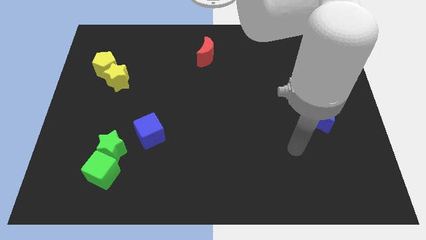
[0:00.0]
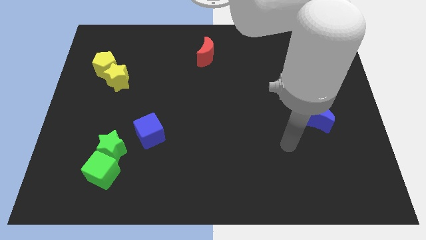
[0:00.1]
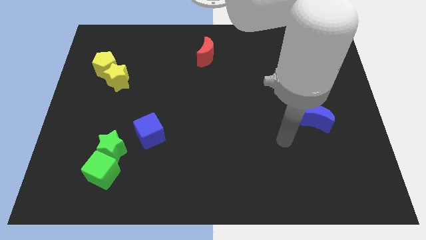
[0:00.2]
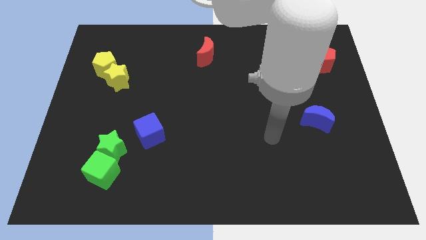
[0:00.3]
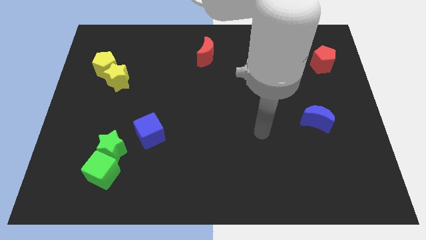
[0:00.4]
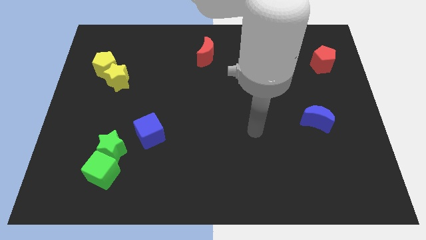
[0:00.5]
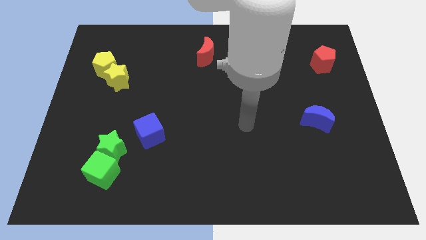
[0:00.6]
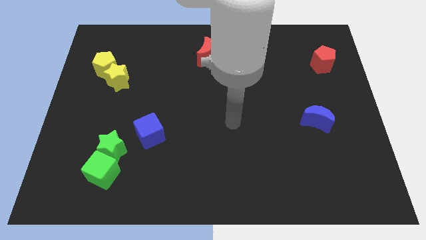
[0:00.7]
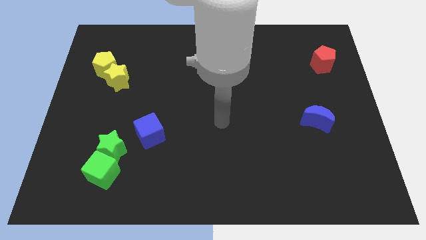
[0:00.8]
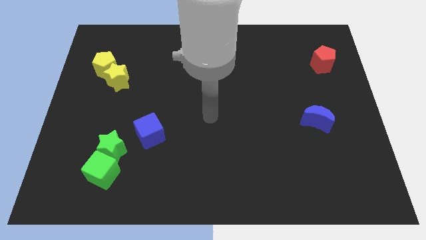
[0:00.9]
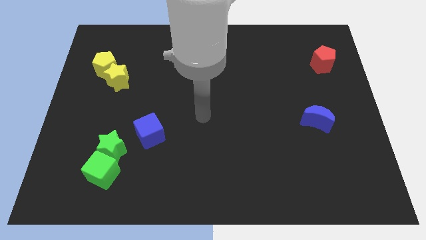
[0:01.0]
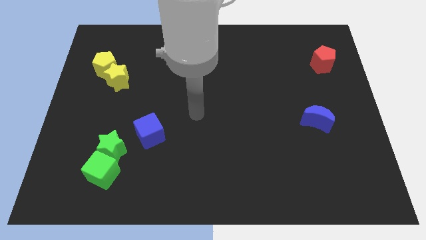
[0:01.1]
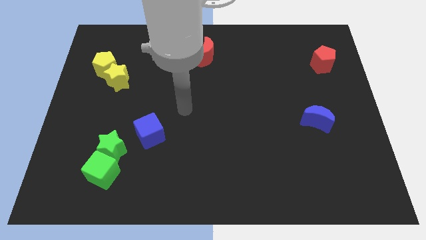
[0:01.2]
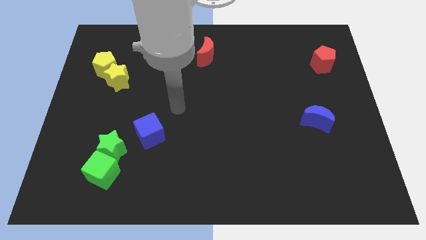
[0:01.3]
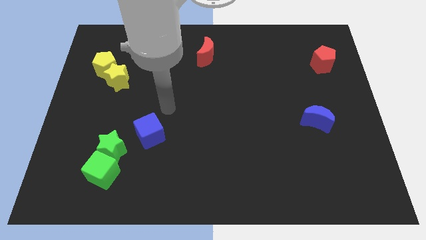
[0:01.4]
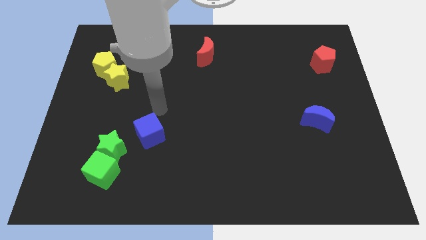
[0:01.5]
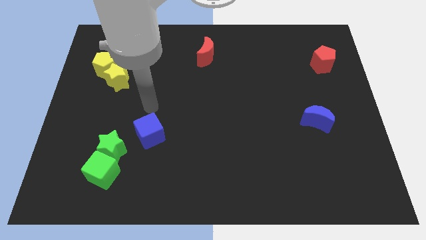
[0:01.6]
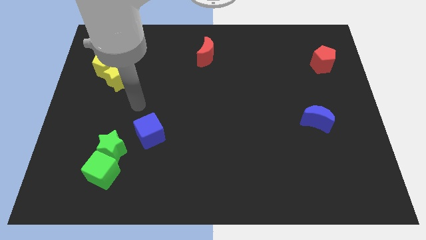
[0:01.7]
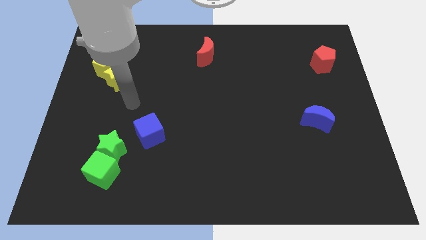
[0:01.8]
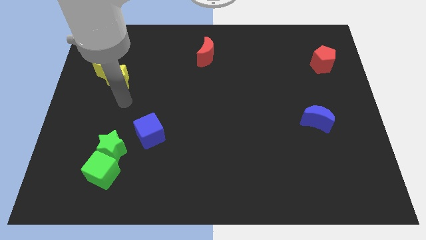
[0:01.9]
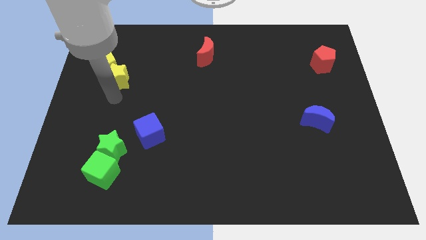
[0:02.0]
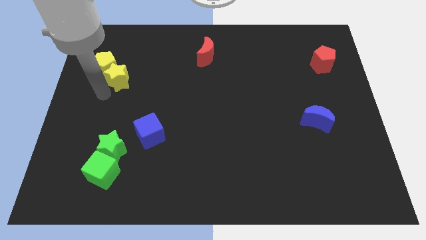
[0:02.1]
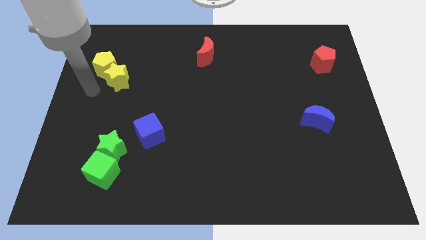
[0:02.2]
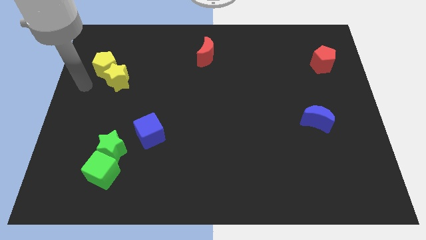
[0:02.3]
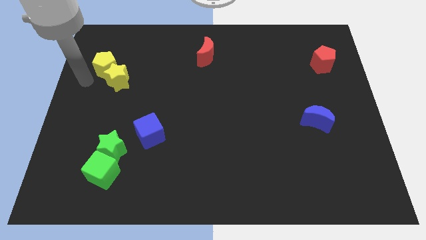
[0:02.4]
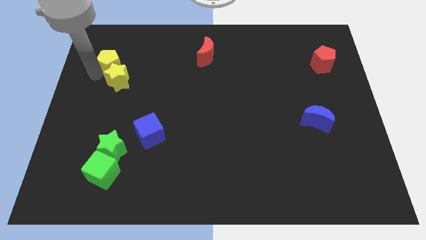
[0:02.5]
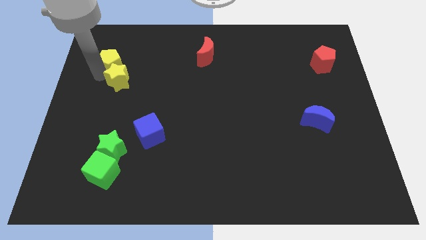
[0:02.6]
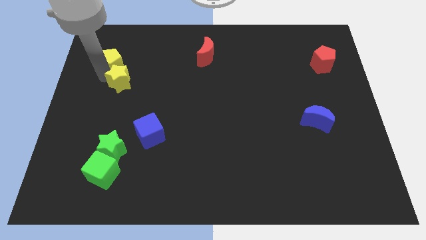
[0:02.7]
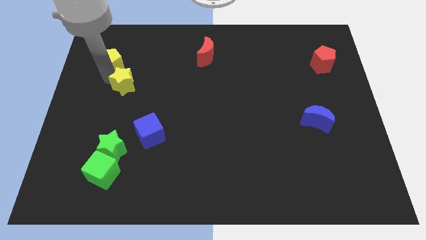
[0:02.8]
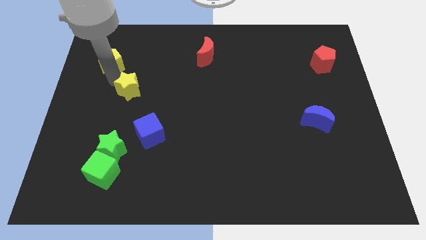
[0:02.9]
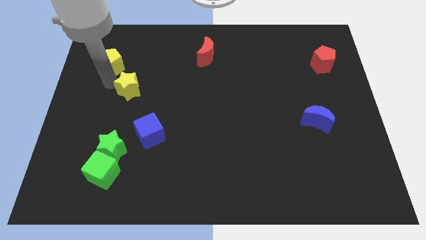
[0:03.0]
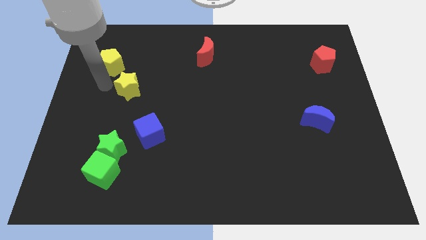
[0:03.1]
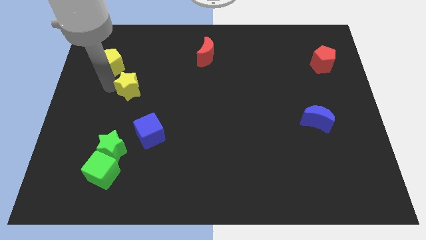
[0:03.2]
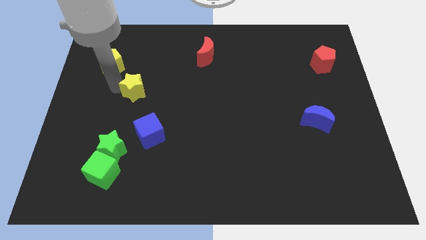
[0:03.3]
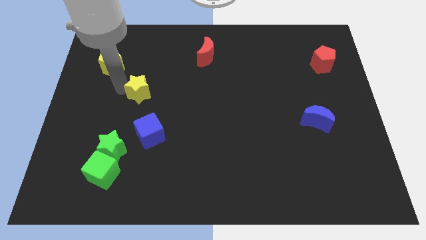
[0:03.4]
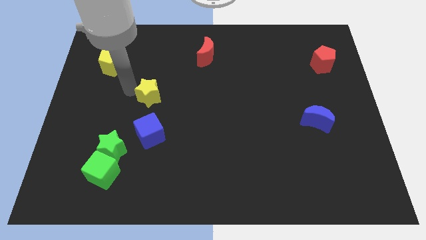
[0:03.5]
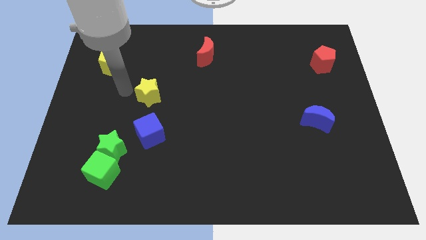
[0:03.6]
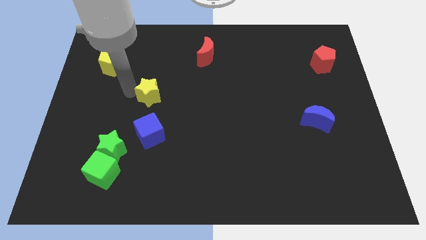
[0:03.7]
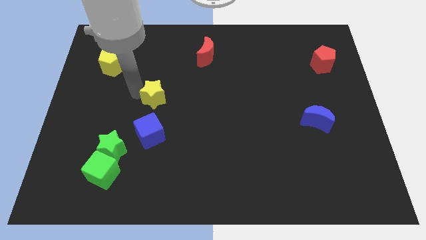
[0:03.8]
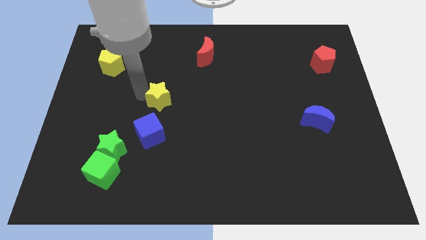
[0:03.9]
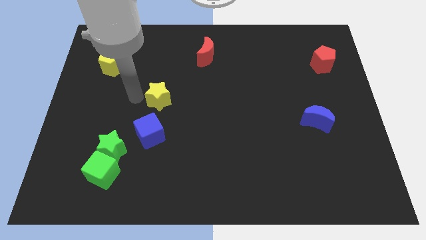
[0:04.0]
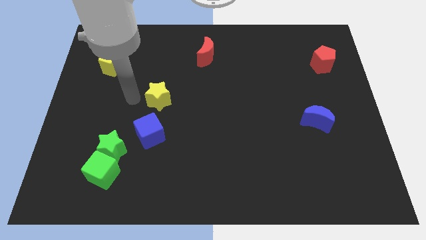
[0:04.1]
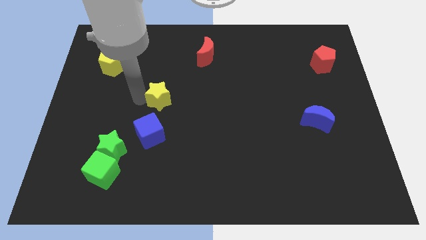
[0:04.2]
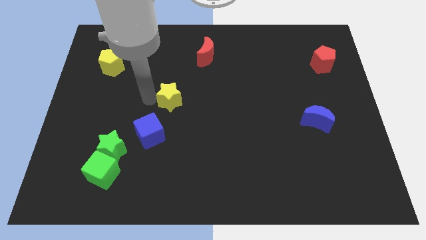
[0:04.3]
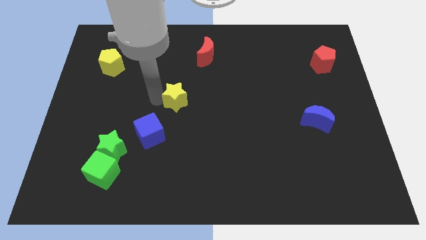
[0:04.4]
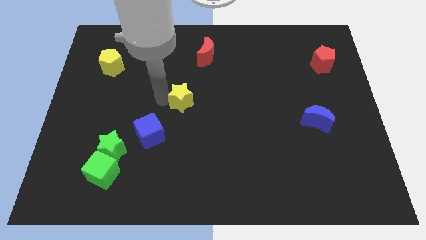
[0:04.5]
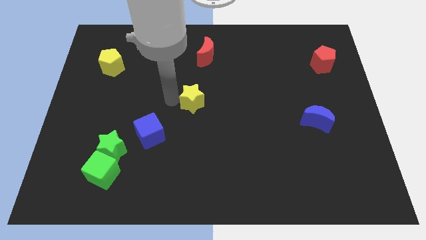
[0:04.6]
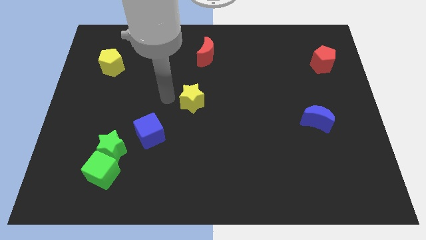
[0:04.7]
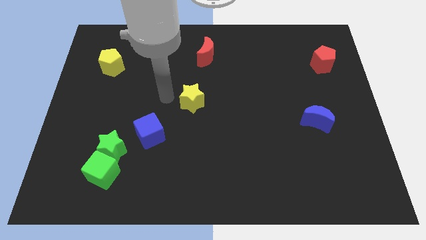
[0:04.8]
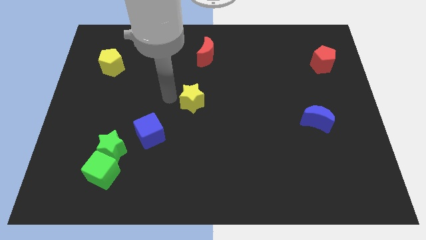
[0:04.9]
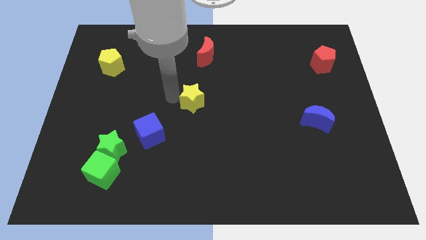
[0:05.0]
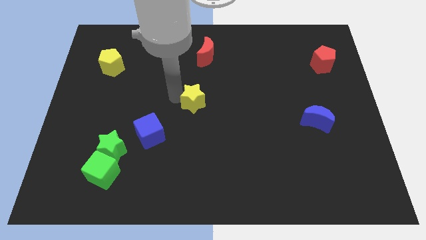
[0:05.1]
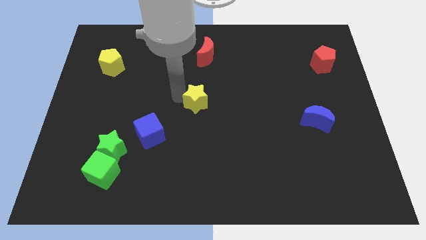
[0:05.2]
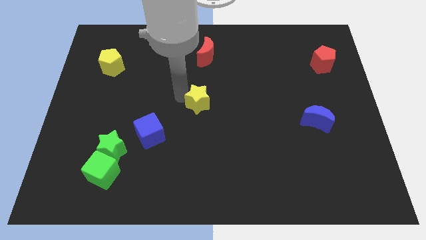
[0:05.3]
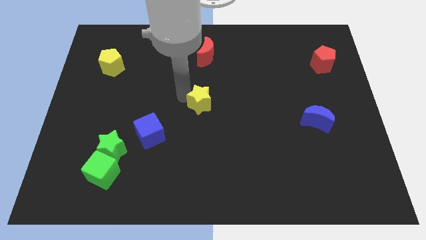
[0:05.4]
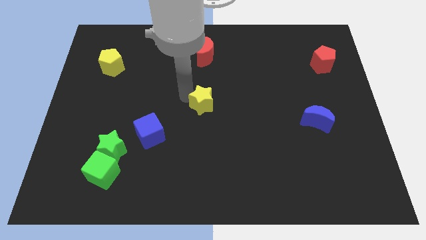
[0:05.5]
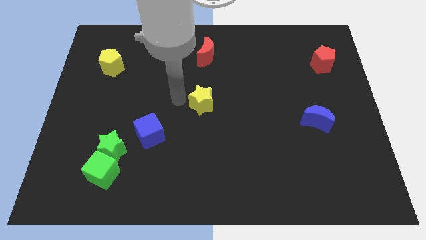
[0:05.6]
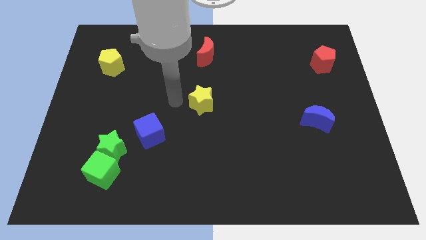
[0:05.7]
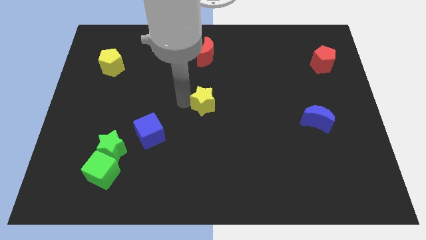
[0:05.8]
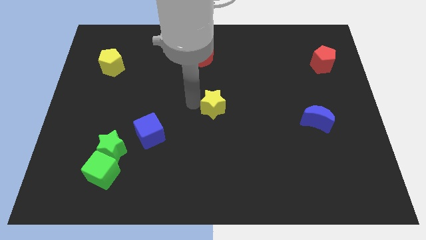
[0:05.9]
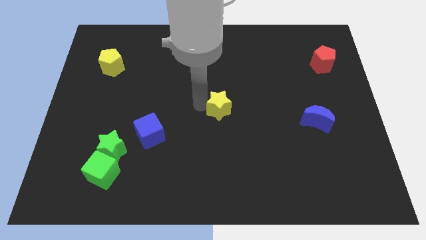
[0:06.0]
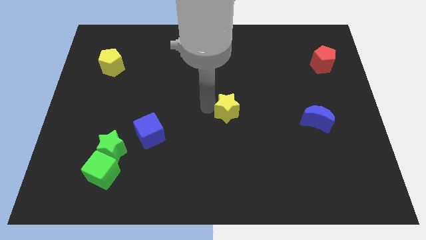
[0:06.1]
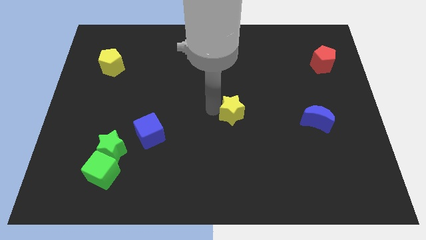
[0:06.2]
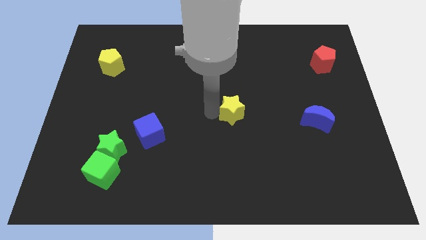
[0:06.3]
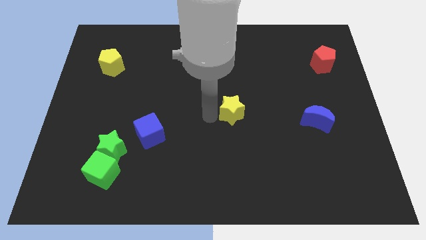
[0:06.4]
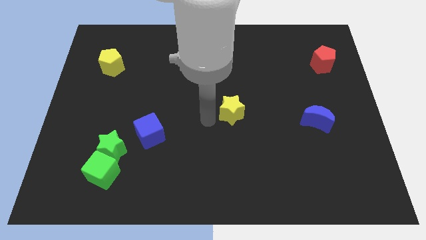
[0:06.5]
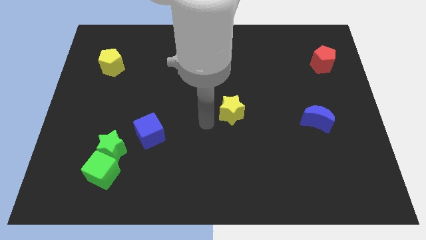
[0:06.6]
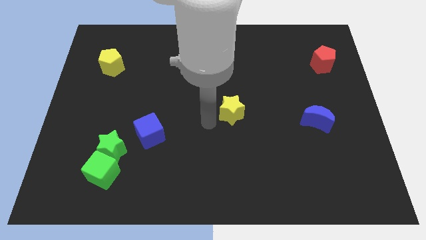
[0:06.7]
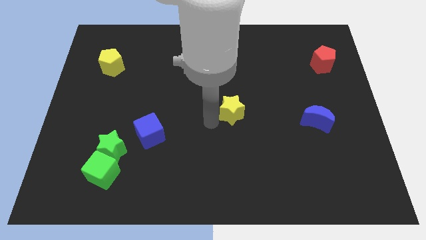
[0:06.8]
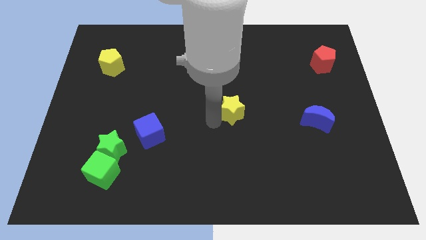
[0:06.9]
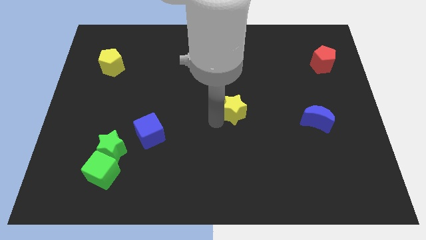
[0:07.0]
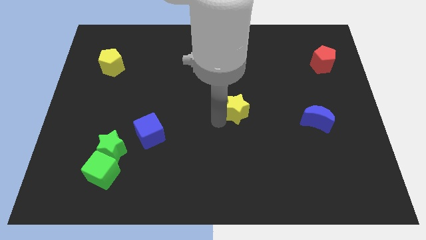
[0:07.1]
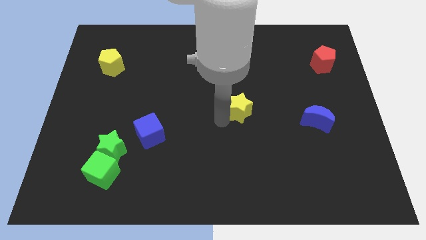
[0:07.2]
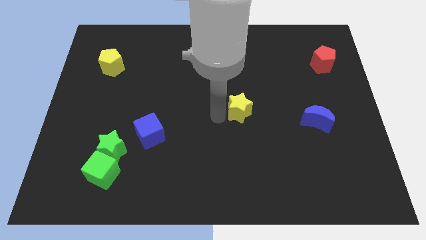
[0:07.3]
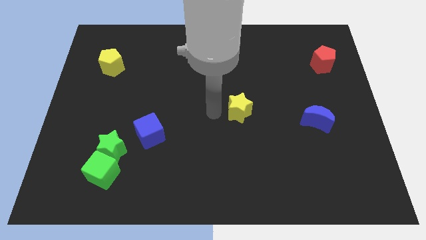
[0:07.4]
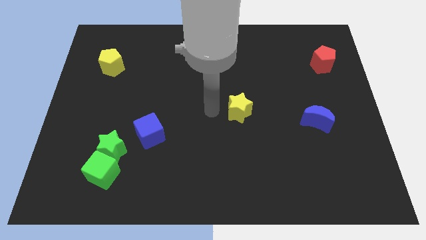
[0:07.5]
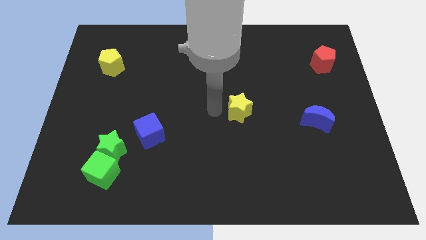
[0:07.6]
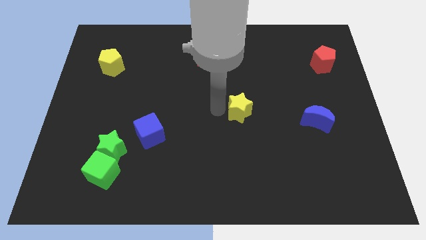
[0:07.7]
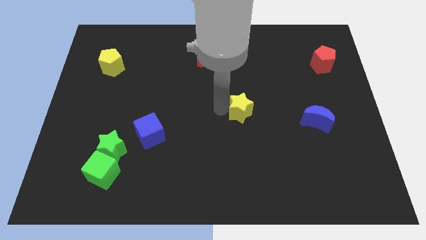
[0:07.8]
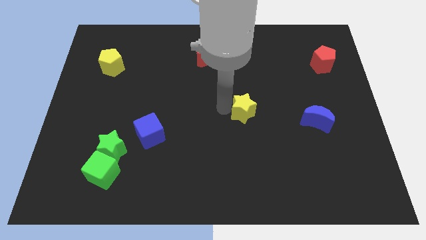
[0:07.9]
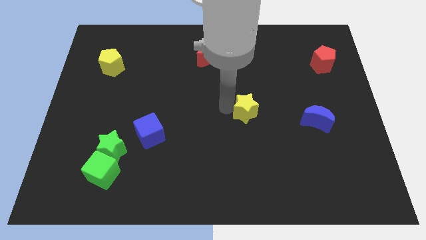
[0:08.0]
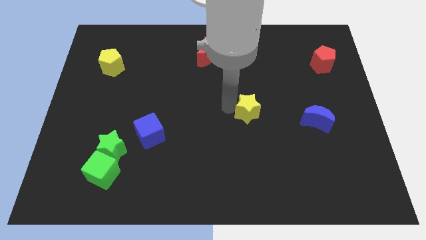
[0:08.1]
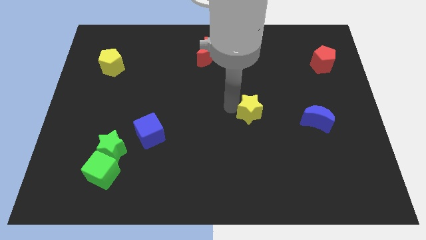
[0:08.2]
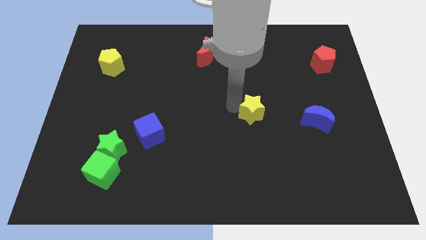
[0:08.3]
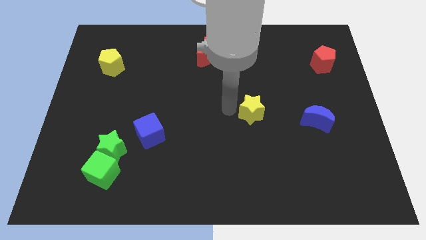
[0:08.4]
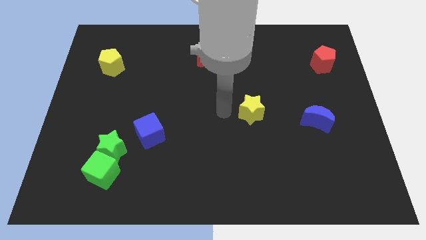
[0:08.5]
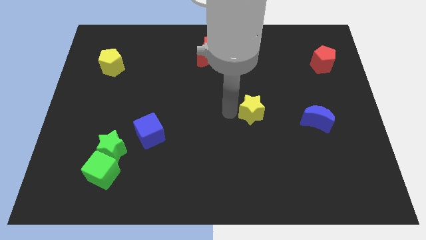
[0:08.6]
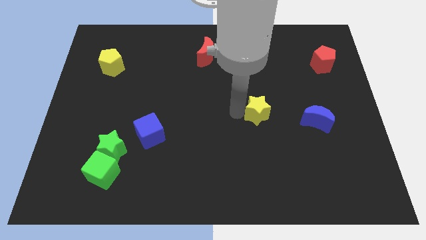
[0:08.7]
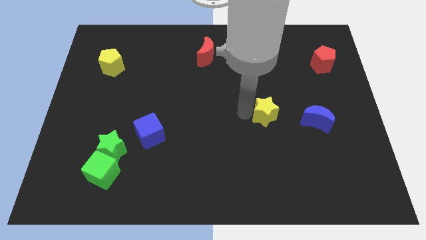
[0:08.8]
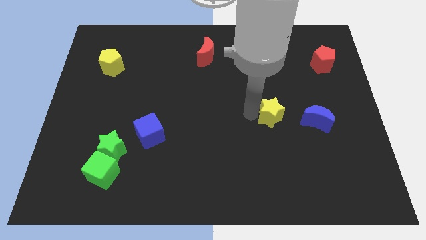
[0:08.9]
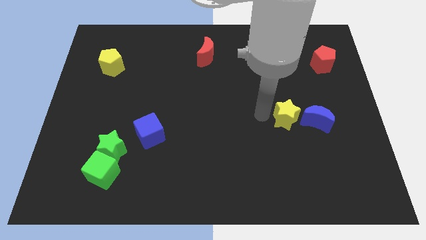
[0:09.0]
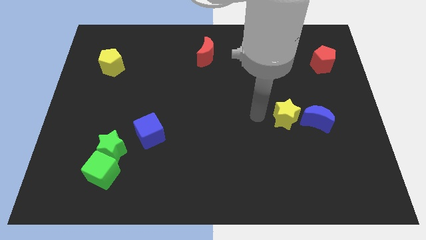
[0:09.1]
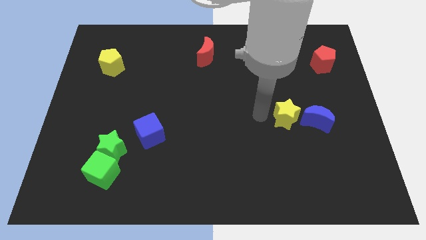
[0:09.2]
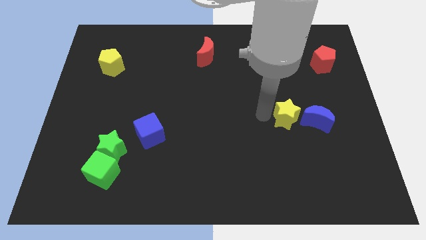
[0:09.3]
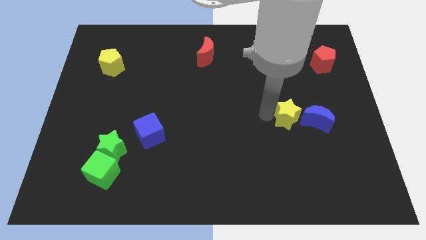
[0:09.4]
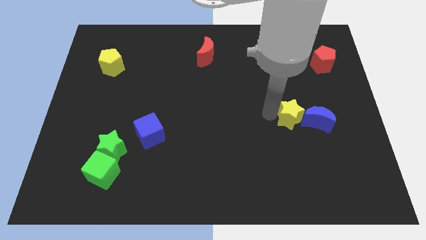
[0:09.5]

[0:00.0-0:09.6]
push the yellow star towards the blue moon
